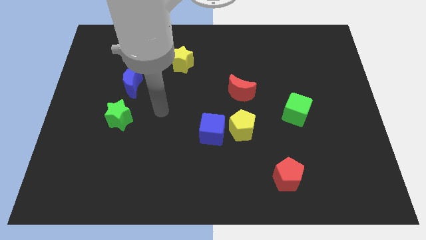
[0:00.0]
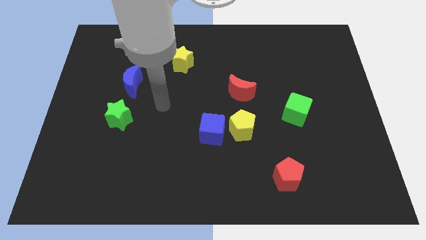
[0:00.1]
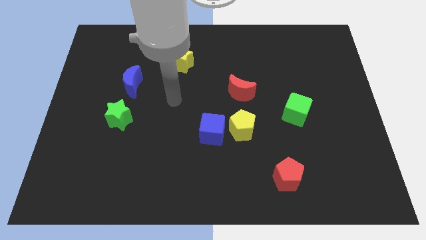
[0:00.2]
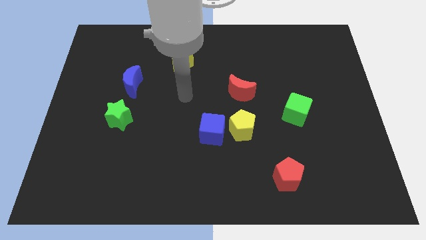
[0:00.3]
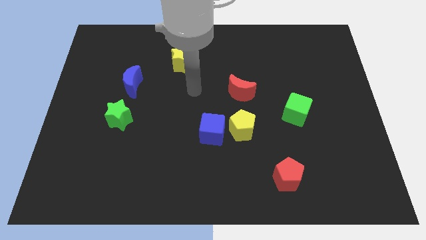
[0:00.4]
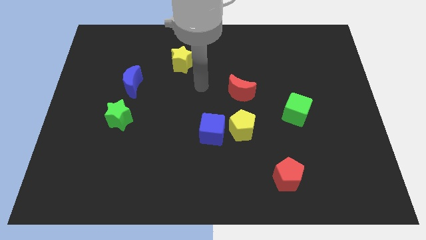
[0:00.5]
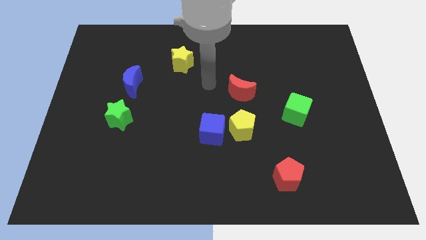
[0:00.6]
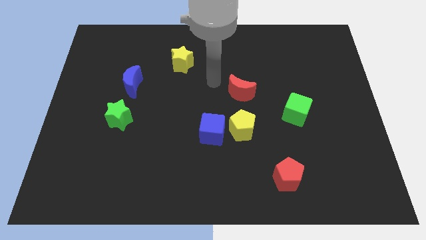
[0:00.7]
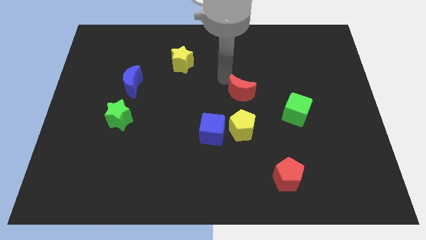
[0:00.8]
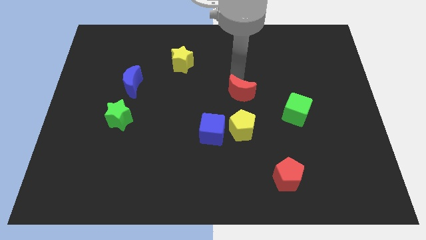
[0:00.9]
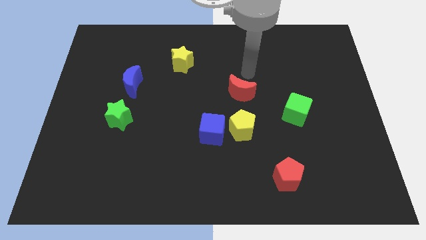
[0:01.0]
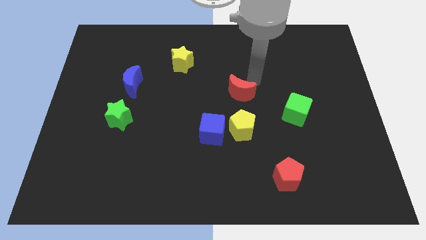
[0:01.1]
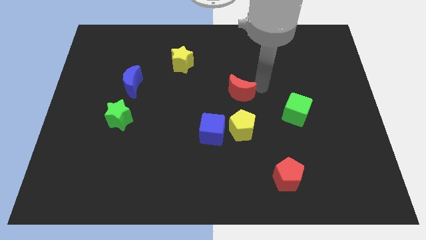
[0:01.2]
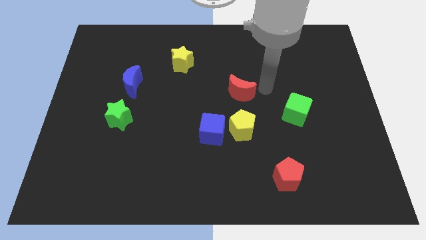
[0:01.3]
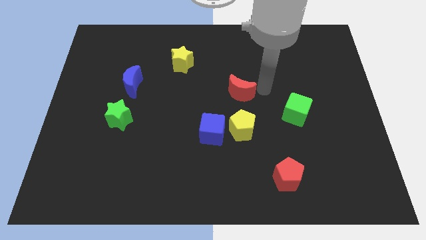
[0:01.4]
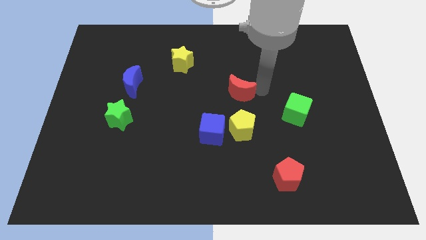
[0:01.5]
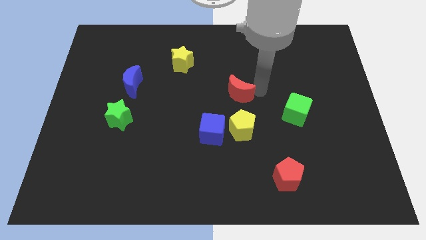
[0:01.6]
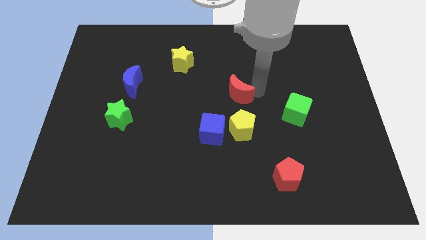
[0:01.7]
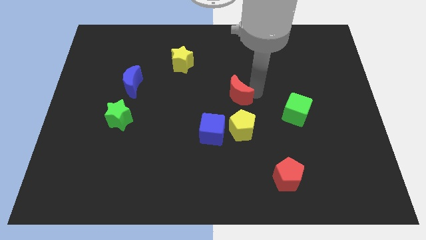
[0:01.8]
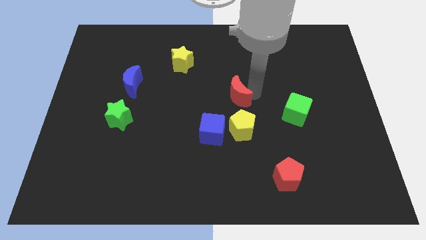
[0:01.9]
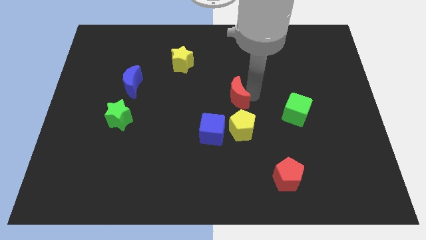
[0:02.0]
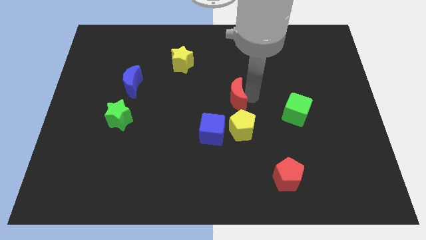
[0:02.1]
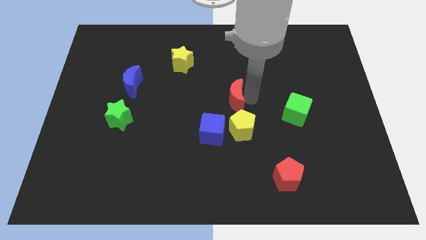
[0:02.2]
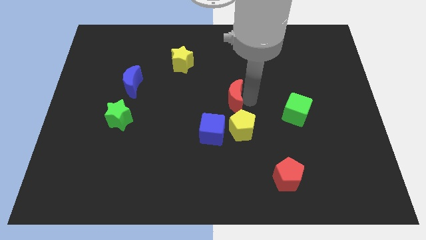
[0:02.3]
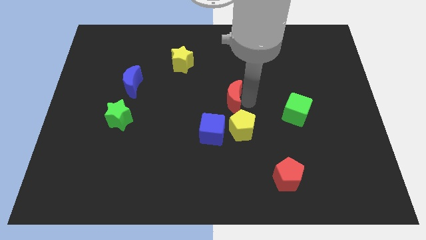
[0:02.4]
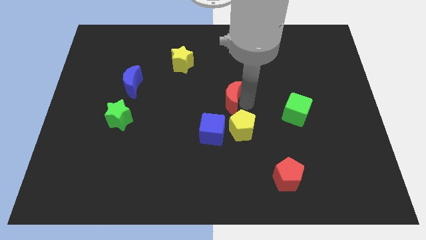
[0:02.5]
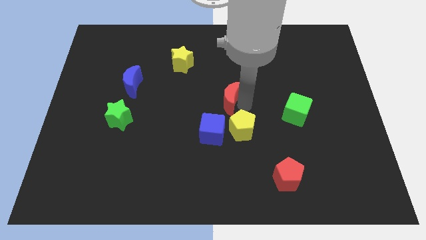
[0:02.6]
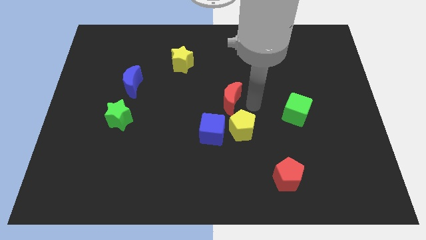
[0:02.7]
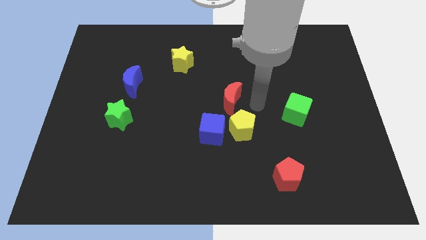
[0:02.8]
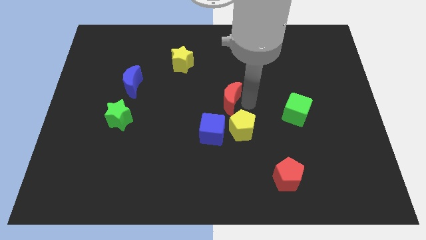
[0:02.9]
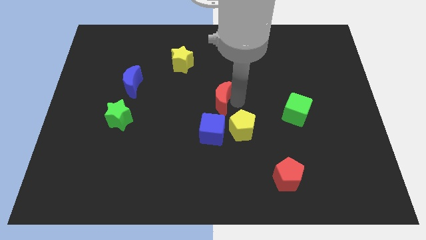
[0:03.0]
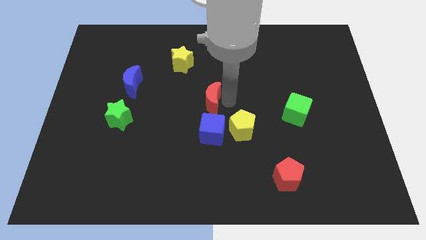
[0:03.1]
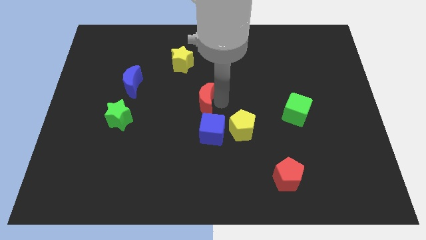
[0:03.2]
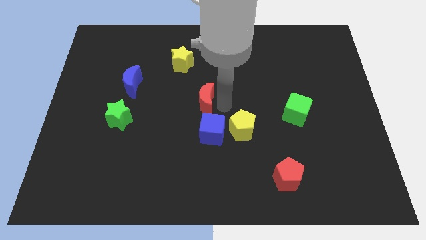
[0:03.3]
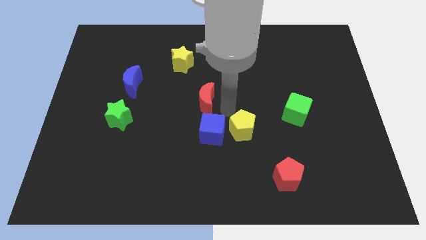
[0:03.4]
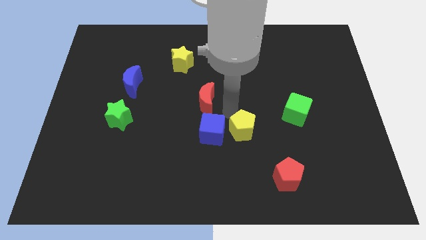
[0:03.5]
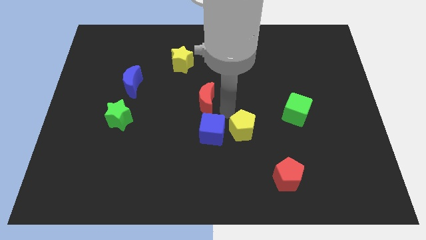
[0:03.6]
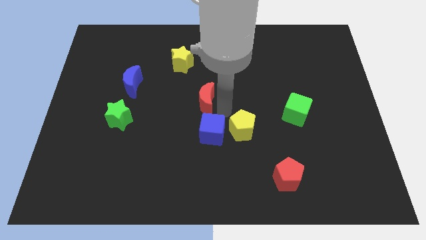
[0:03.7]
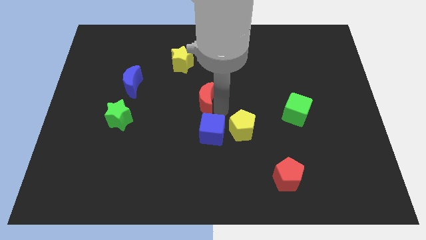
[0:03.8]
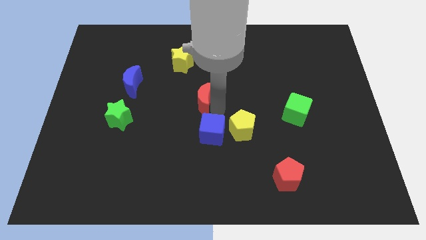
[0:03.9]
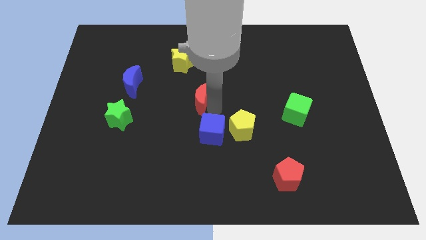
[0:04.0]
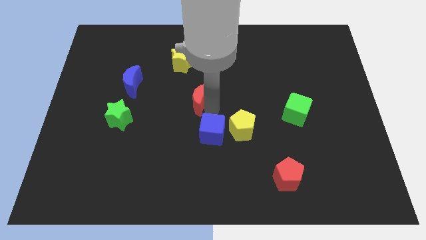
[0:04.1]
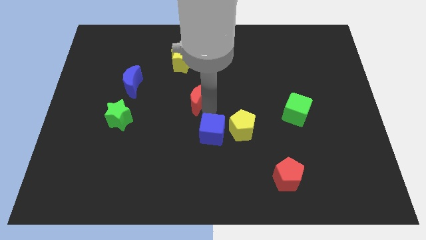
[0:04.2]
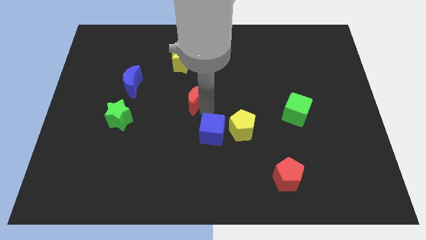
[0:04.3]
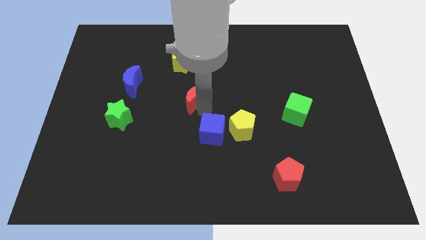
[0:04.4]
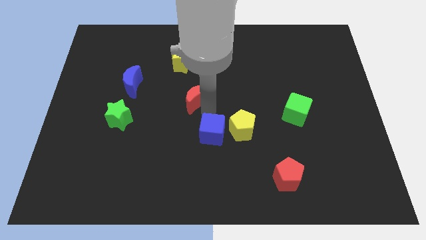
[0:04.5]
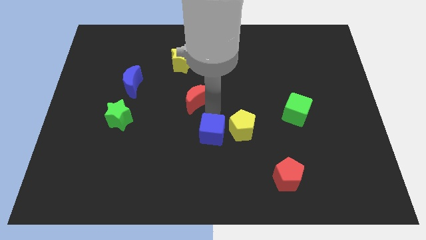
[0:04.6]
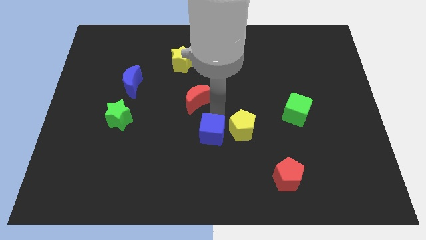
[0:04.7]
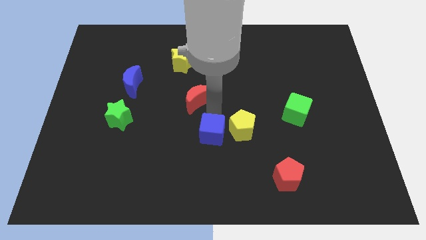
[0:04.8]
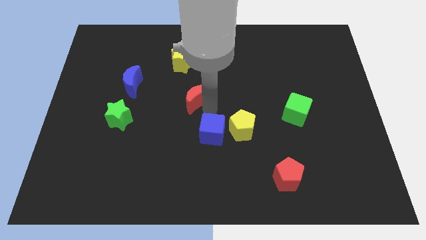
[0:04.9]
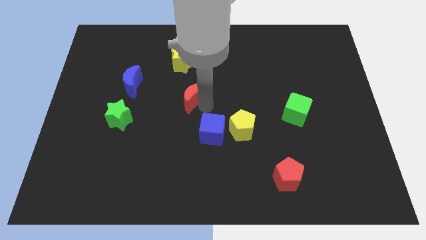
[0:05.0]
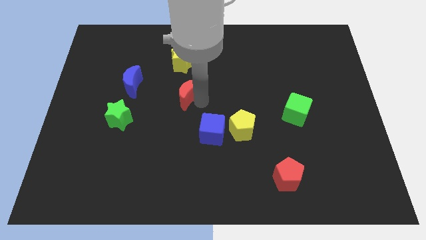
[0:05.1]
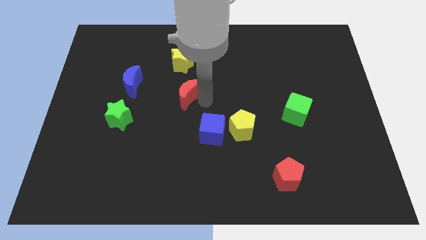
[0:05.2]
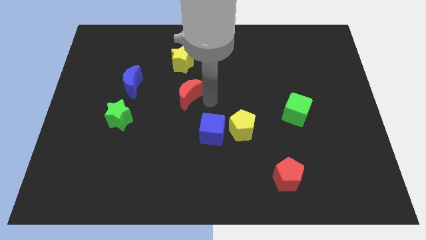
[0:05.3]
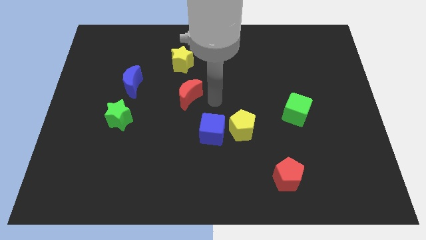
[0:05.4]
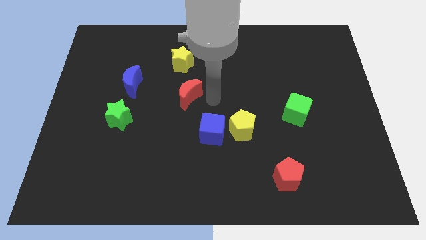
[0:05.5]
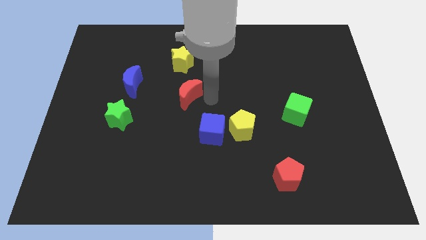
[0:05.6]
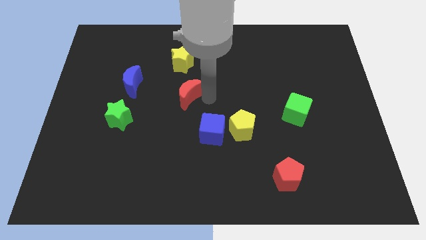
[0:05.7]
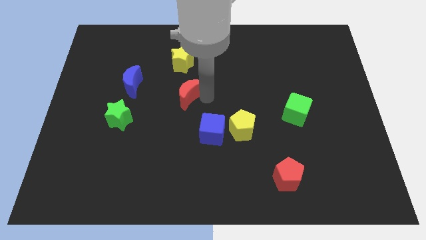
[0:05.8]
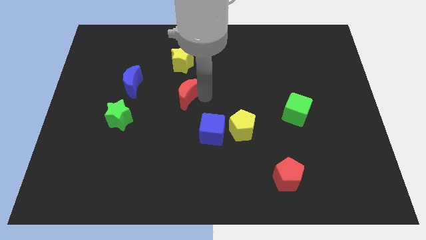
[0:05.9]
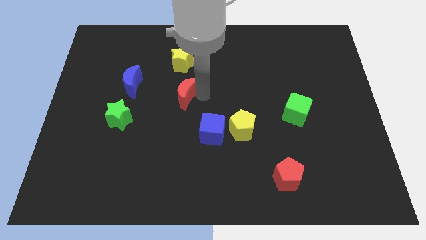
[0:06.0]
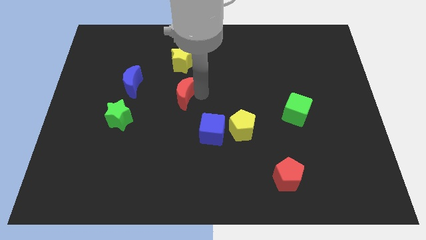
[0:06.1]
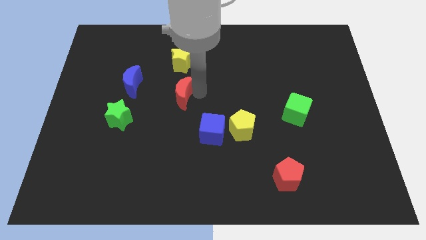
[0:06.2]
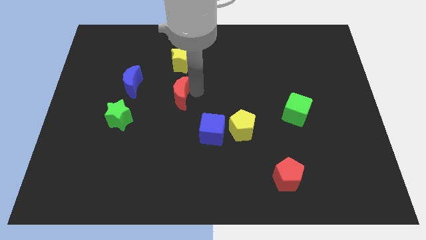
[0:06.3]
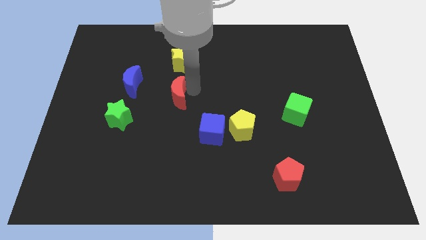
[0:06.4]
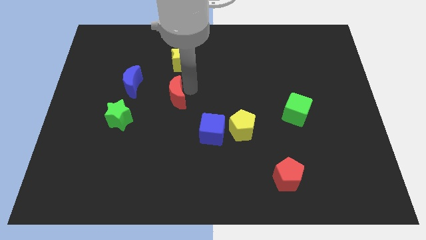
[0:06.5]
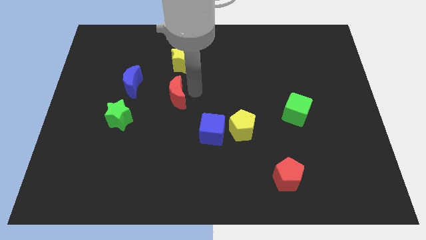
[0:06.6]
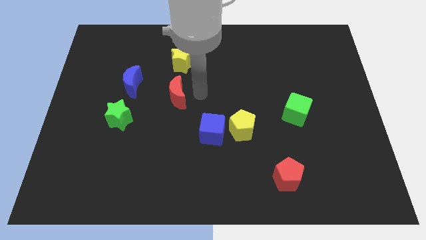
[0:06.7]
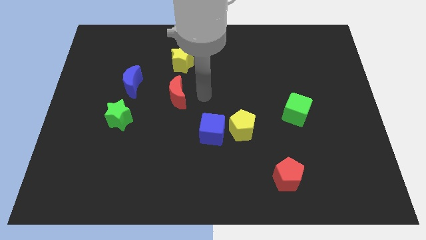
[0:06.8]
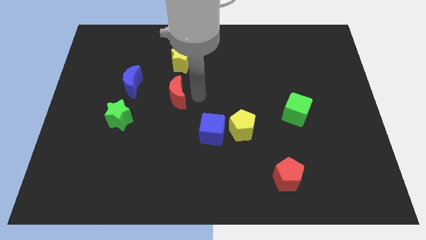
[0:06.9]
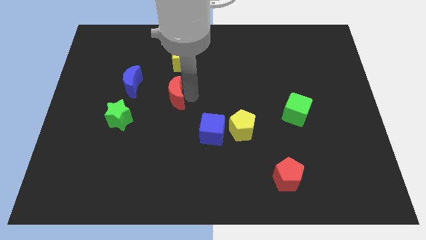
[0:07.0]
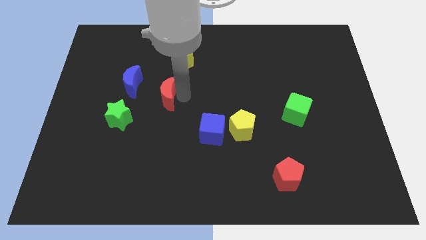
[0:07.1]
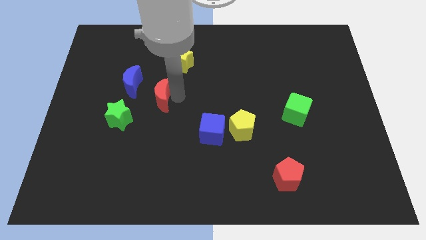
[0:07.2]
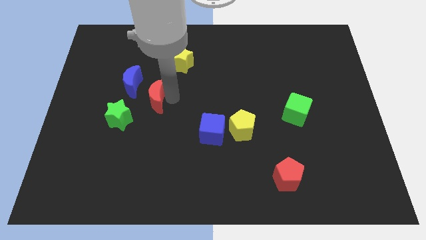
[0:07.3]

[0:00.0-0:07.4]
push the red moon to the left

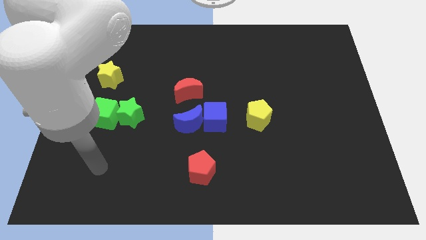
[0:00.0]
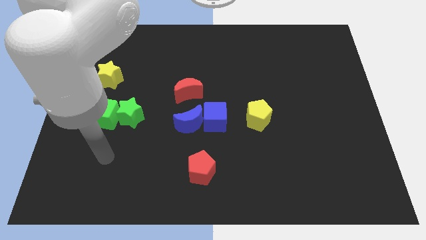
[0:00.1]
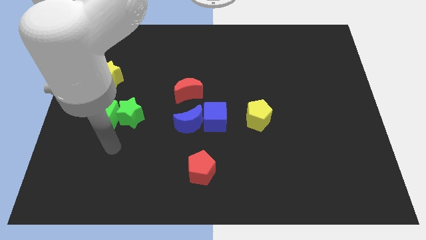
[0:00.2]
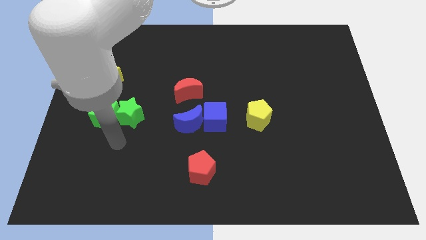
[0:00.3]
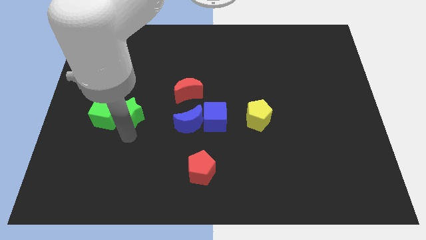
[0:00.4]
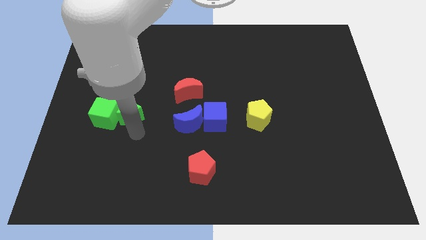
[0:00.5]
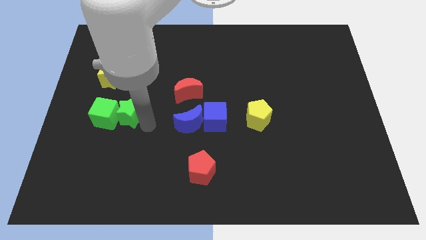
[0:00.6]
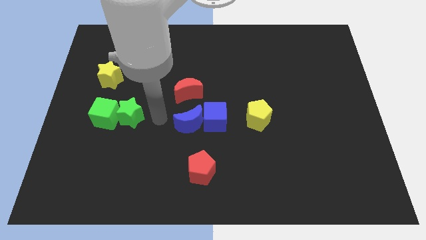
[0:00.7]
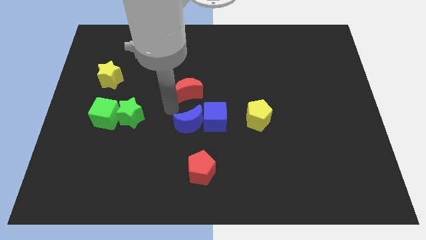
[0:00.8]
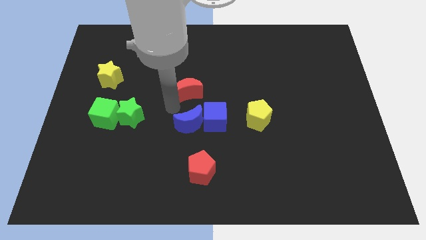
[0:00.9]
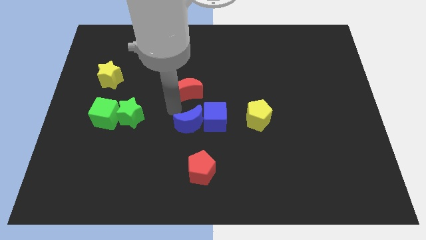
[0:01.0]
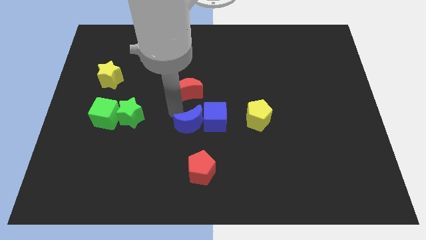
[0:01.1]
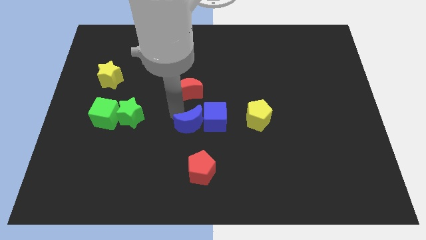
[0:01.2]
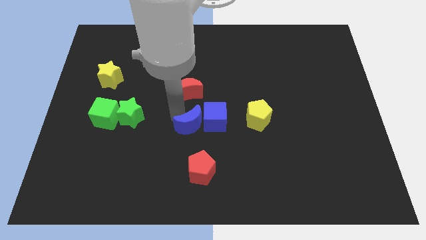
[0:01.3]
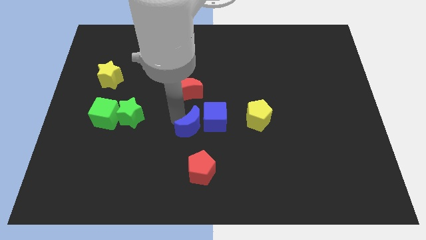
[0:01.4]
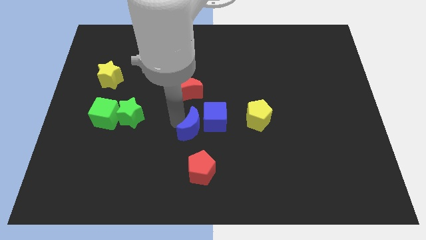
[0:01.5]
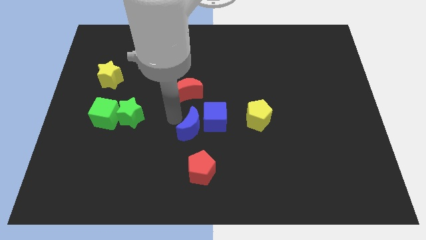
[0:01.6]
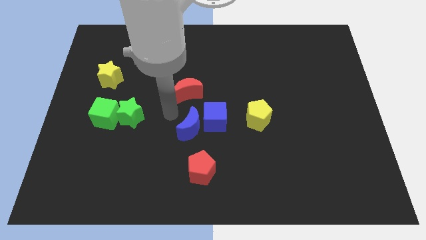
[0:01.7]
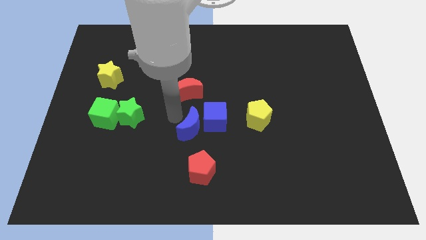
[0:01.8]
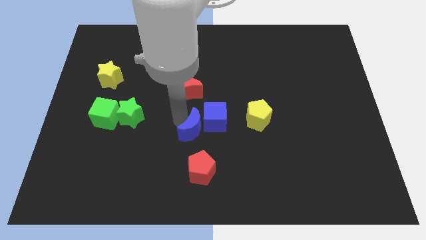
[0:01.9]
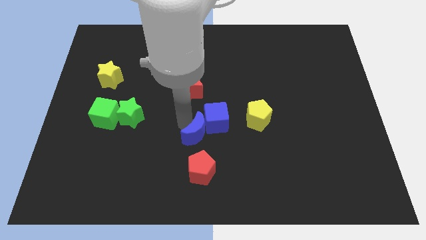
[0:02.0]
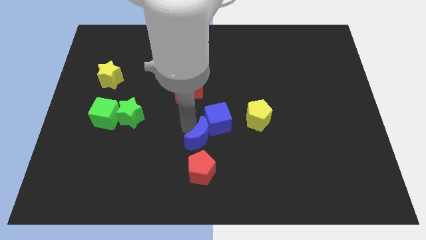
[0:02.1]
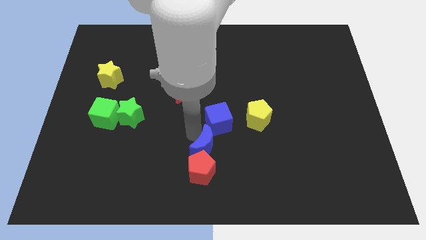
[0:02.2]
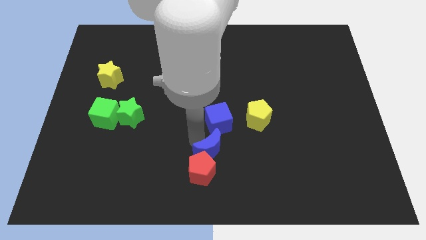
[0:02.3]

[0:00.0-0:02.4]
push the blue moon diagonally downwards and to the right a bit
